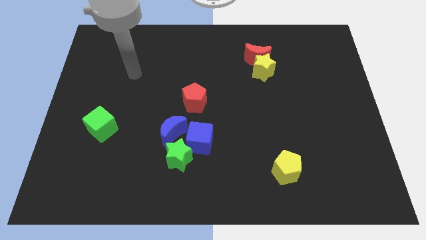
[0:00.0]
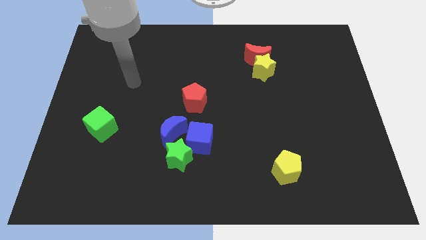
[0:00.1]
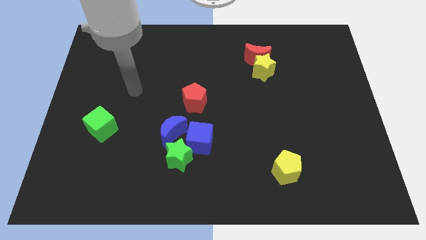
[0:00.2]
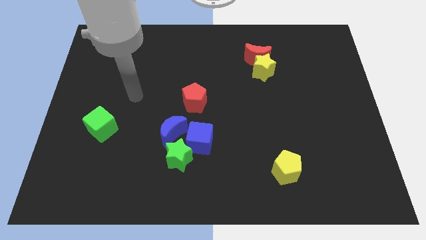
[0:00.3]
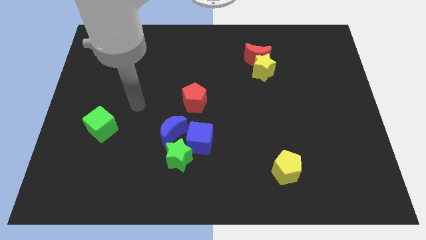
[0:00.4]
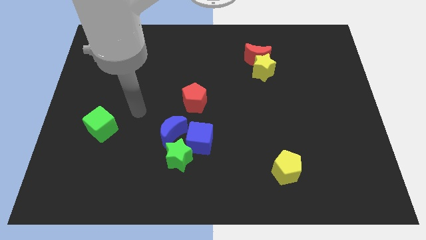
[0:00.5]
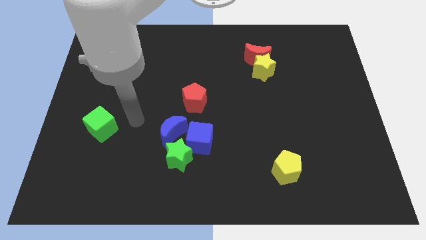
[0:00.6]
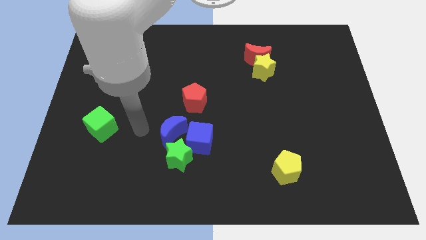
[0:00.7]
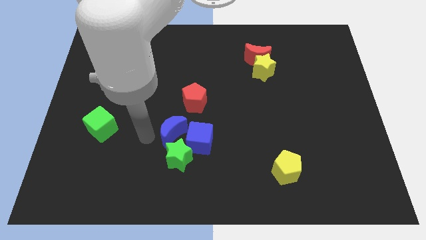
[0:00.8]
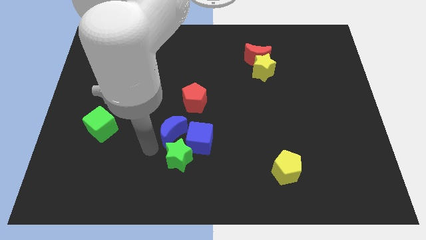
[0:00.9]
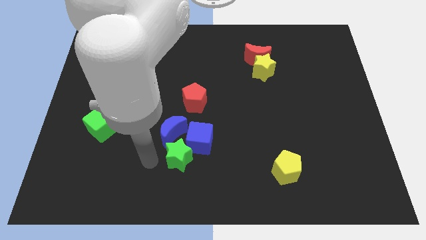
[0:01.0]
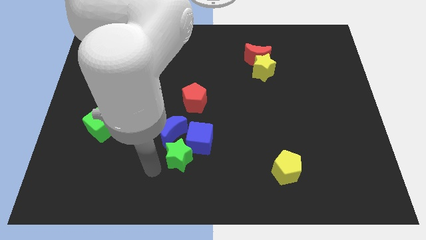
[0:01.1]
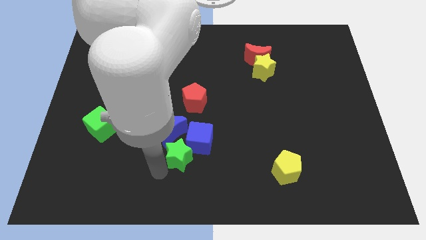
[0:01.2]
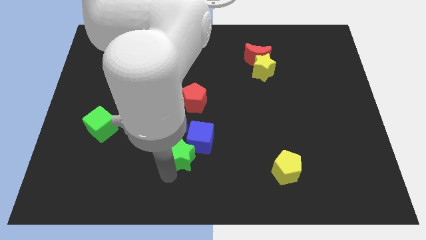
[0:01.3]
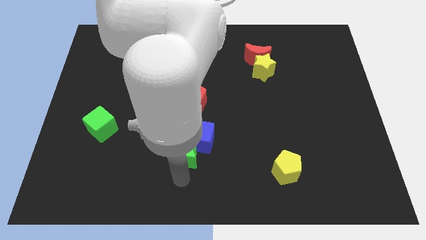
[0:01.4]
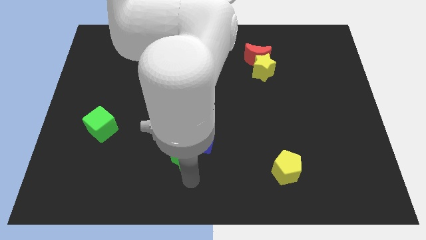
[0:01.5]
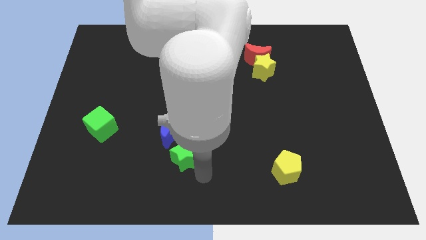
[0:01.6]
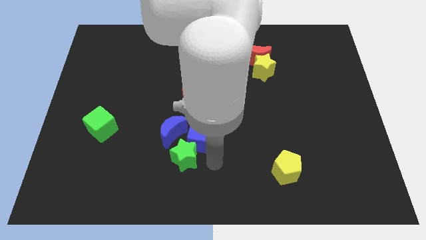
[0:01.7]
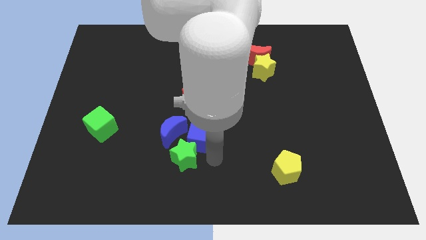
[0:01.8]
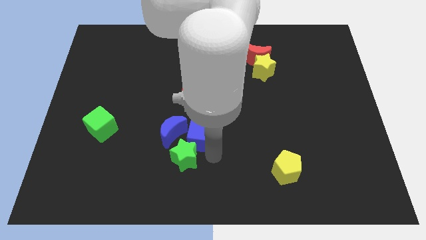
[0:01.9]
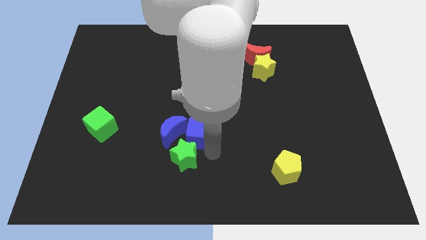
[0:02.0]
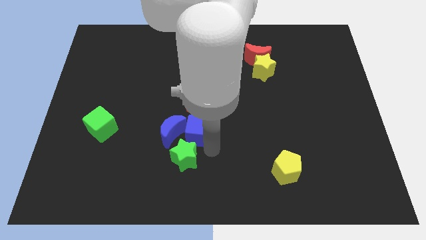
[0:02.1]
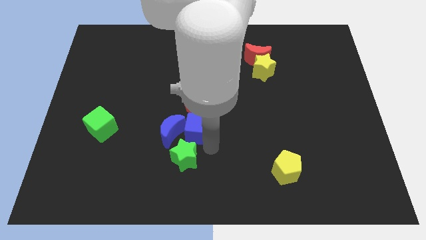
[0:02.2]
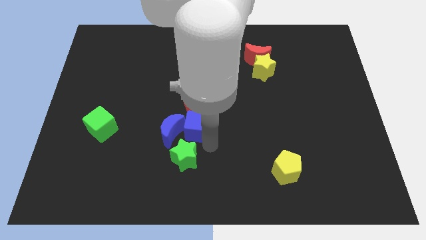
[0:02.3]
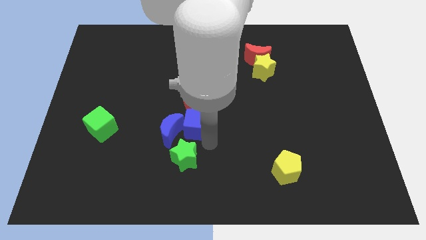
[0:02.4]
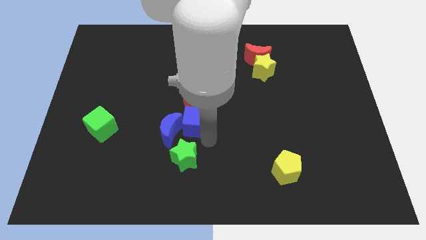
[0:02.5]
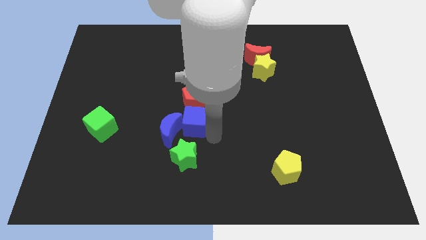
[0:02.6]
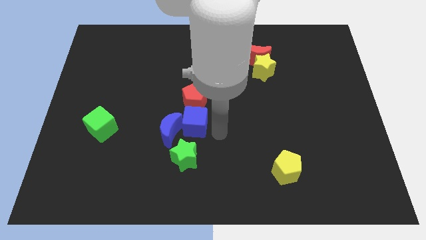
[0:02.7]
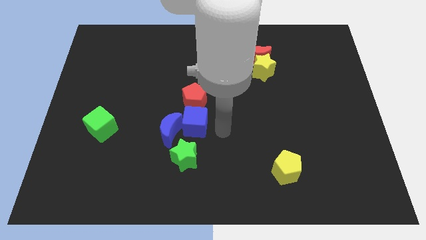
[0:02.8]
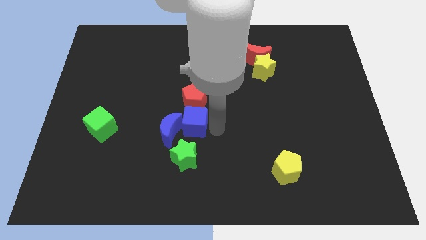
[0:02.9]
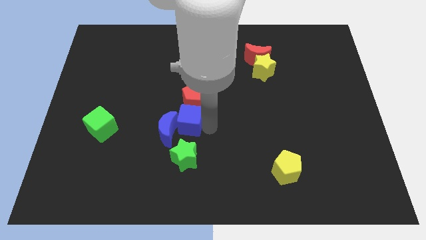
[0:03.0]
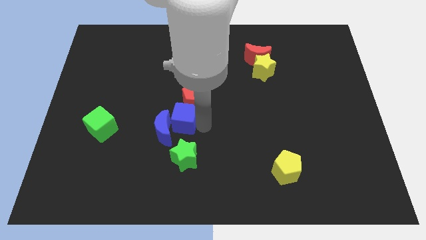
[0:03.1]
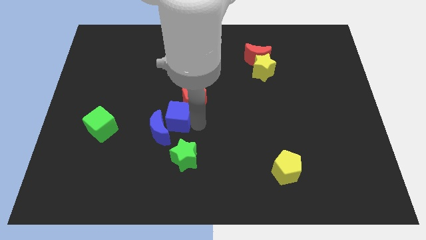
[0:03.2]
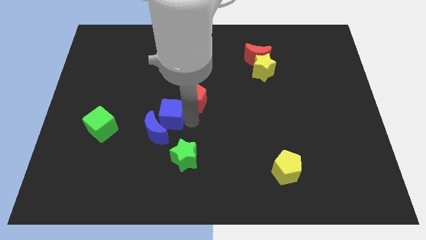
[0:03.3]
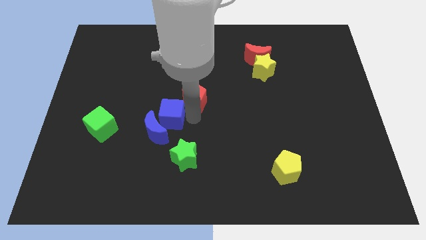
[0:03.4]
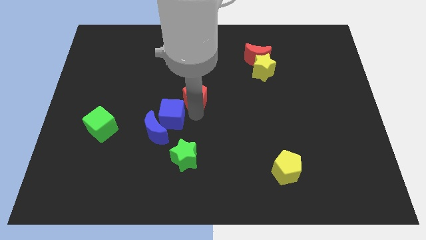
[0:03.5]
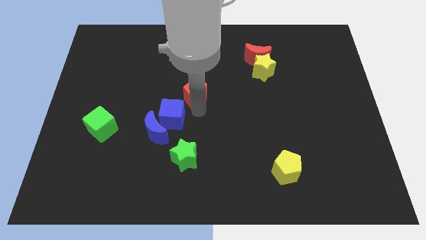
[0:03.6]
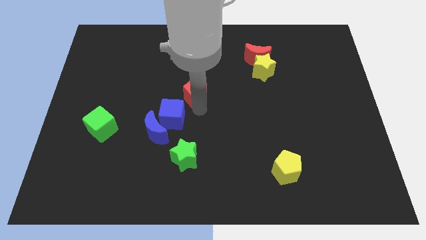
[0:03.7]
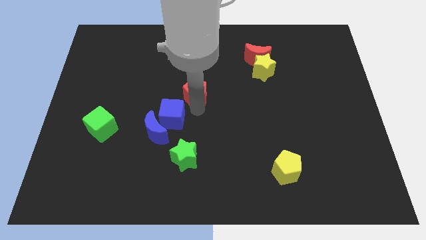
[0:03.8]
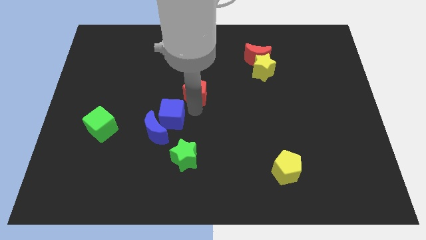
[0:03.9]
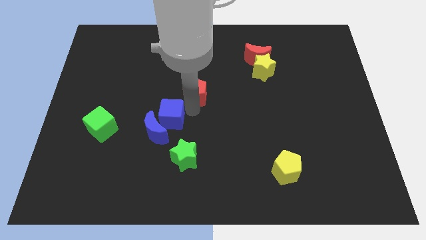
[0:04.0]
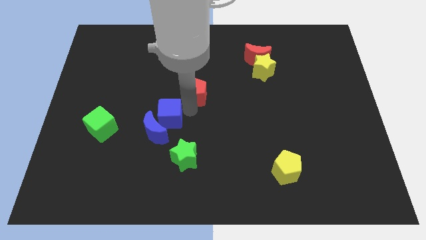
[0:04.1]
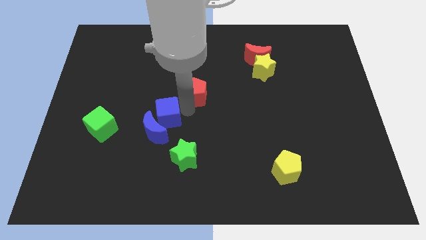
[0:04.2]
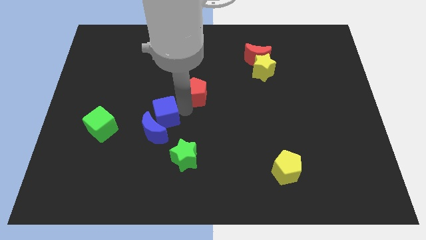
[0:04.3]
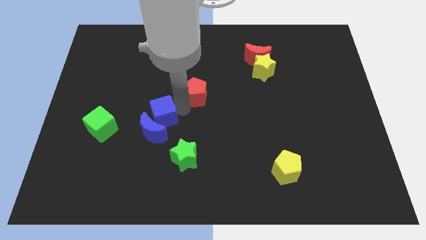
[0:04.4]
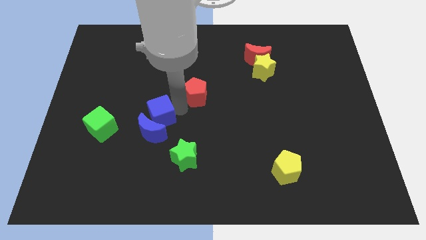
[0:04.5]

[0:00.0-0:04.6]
slide the blue cube to the left slightly

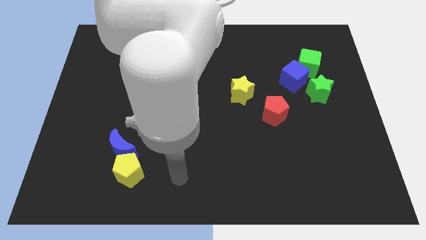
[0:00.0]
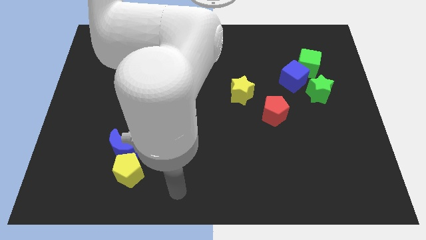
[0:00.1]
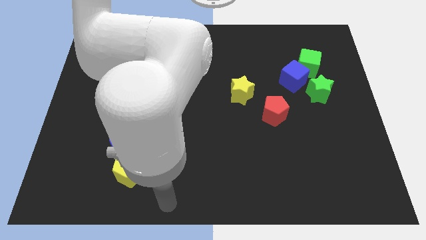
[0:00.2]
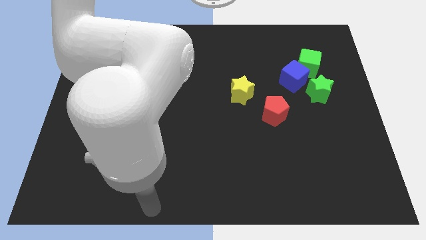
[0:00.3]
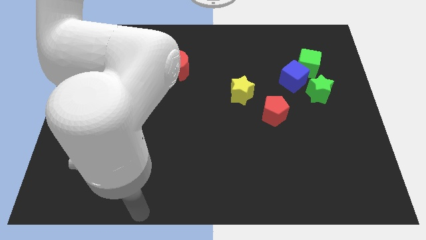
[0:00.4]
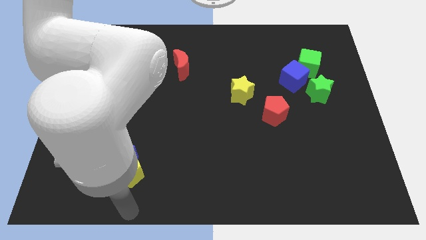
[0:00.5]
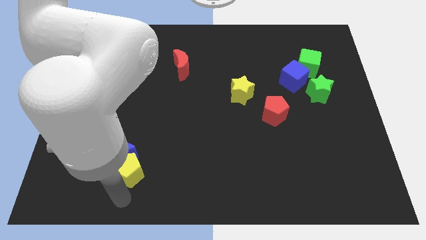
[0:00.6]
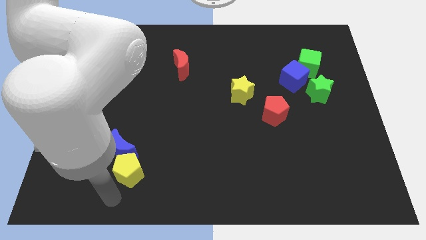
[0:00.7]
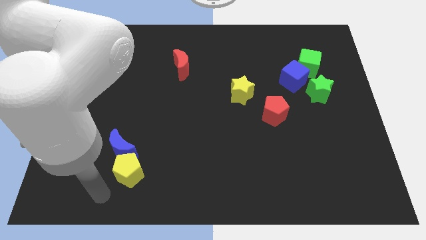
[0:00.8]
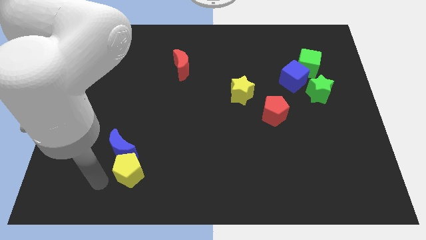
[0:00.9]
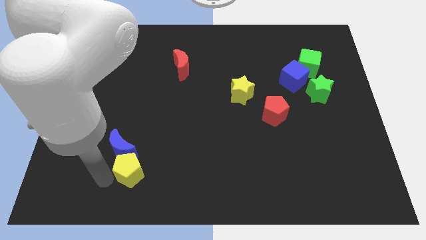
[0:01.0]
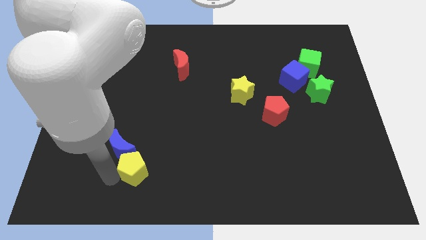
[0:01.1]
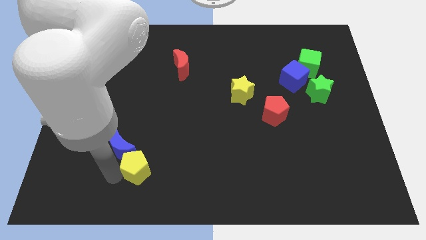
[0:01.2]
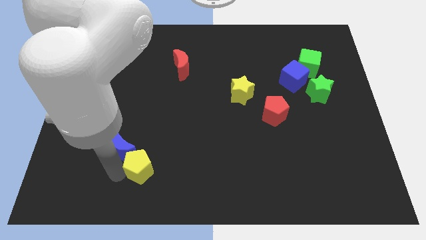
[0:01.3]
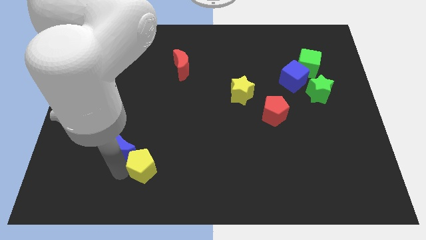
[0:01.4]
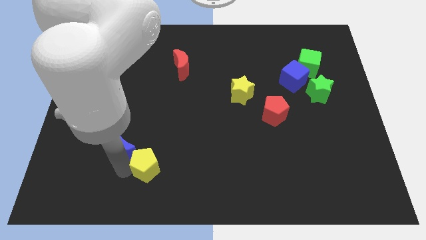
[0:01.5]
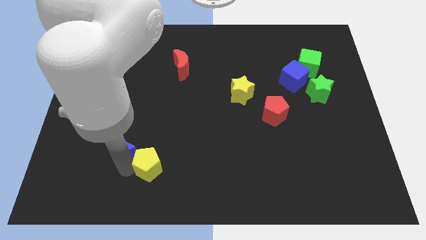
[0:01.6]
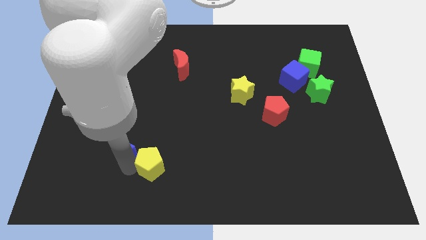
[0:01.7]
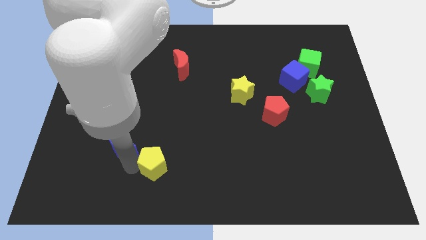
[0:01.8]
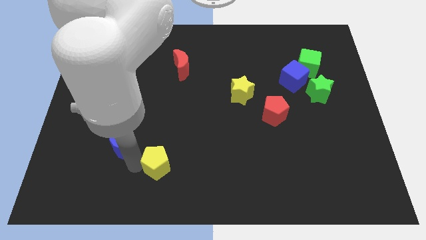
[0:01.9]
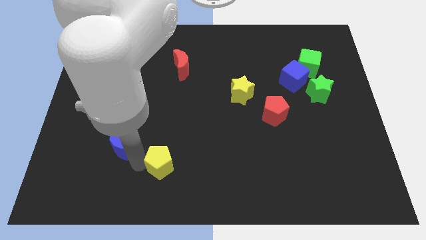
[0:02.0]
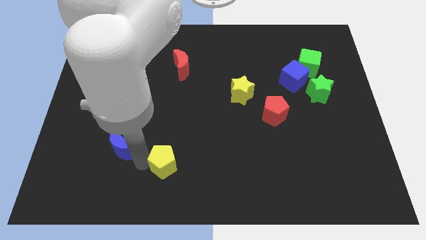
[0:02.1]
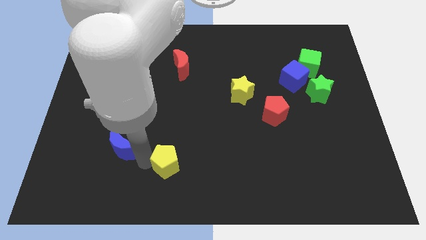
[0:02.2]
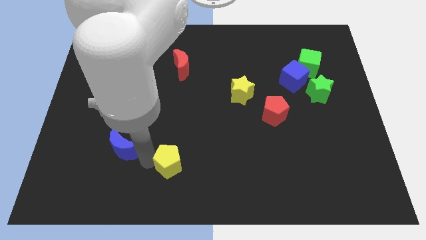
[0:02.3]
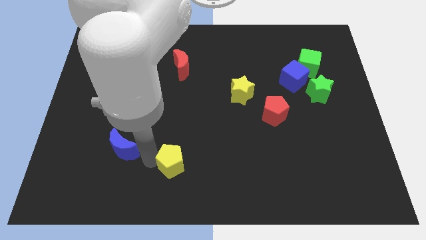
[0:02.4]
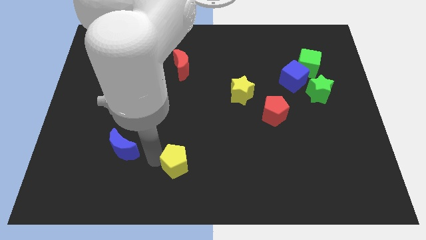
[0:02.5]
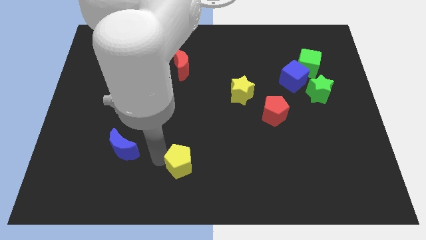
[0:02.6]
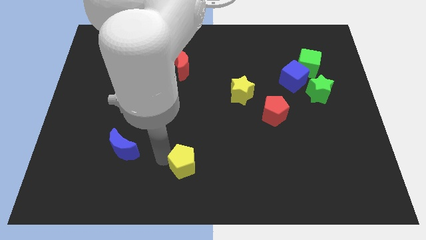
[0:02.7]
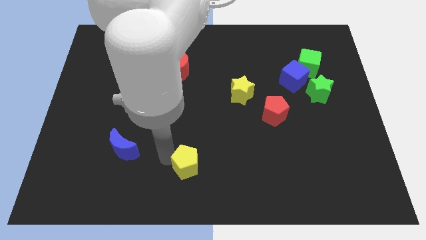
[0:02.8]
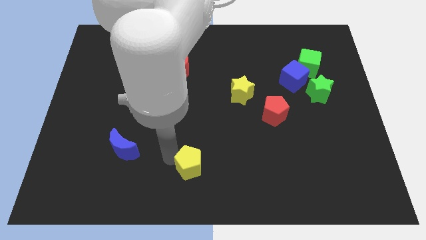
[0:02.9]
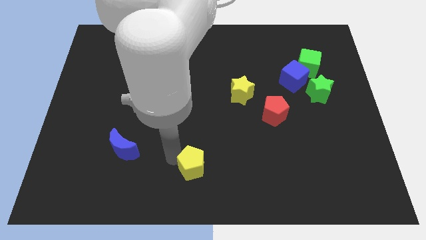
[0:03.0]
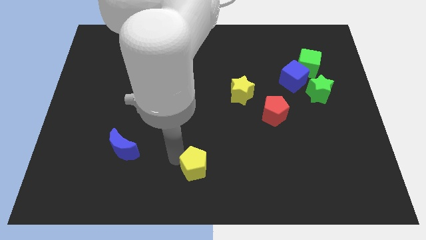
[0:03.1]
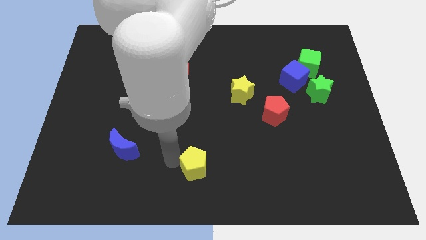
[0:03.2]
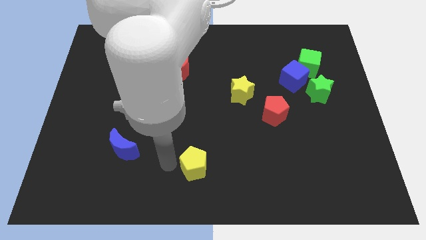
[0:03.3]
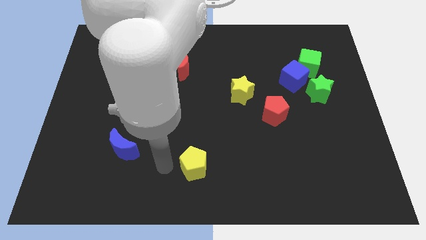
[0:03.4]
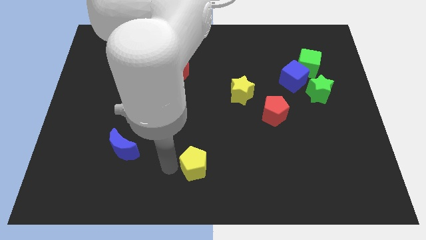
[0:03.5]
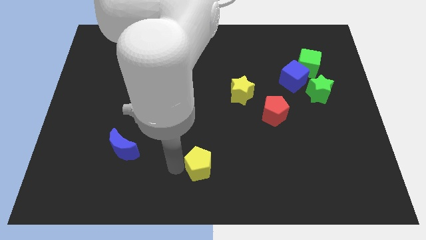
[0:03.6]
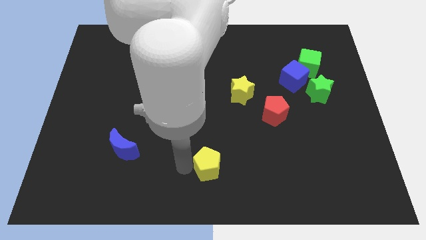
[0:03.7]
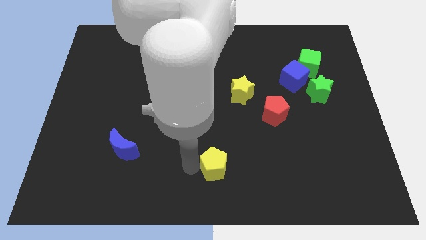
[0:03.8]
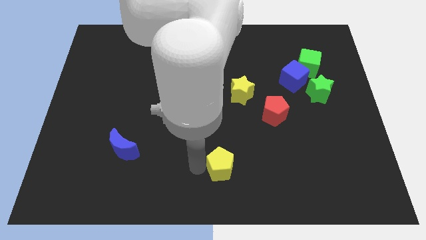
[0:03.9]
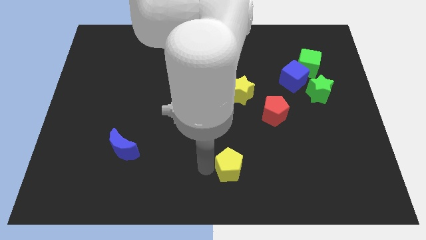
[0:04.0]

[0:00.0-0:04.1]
push the yellow pentagon right
